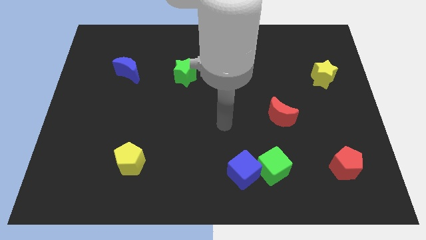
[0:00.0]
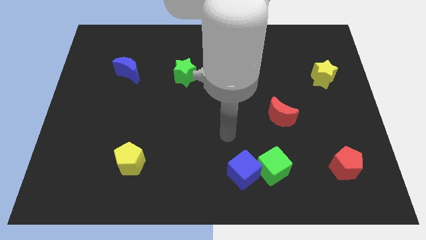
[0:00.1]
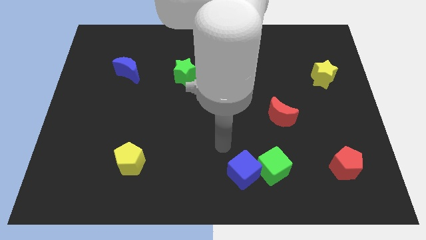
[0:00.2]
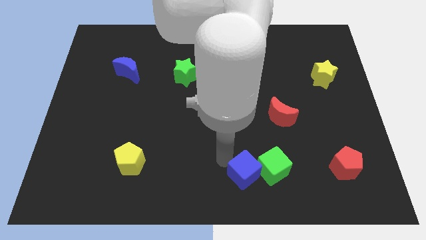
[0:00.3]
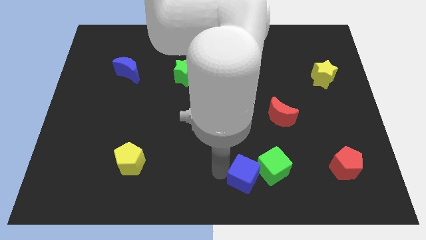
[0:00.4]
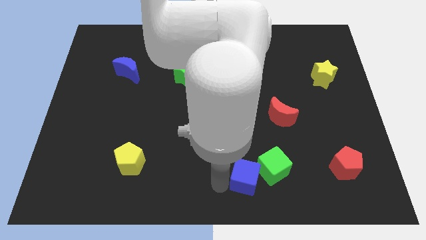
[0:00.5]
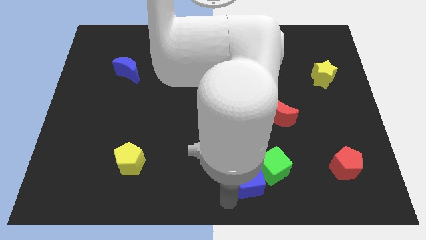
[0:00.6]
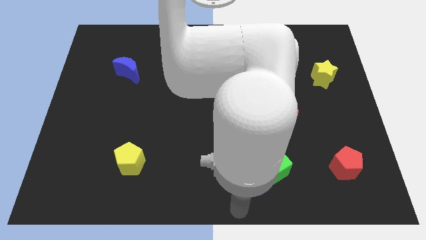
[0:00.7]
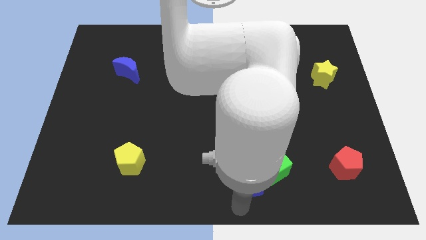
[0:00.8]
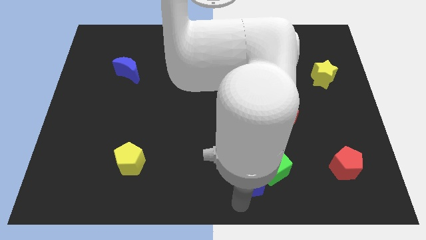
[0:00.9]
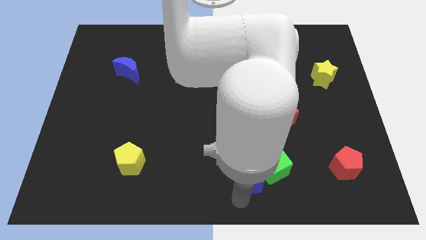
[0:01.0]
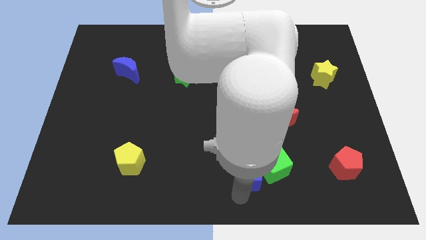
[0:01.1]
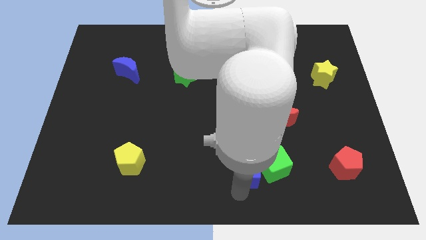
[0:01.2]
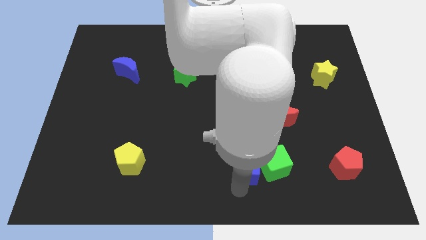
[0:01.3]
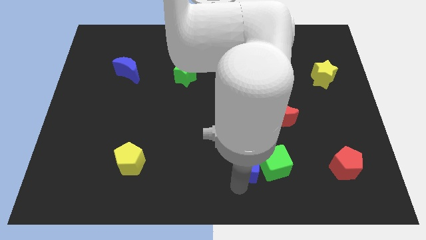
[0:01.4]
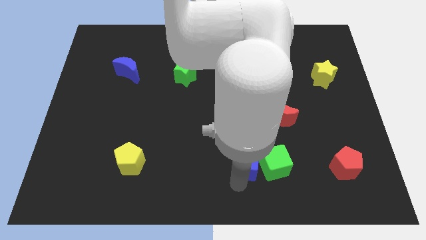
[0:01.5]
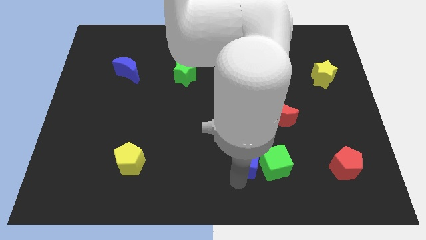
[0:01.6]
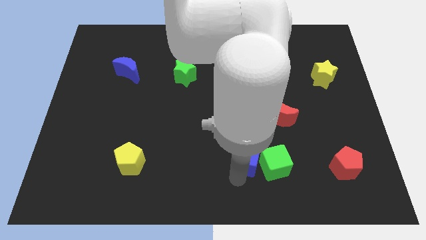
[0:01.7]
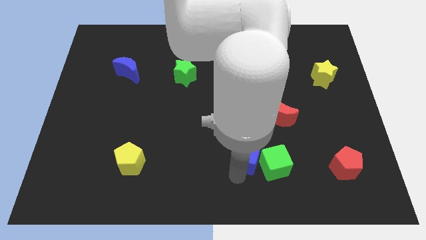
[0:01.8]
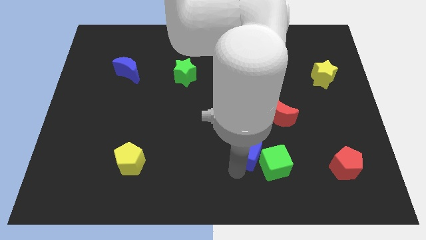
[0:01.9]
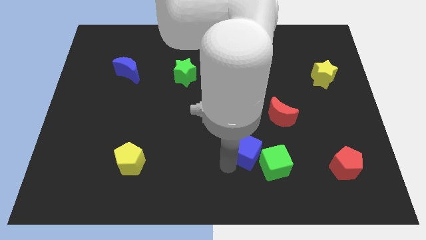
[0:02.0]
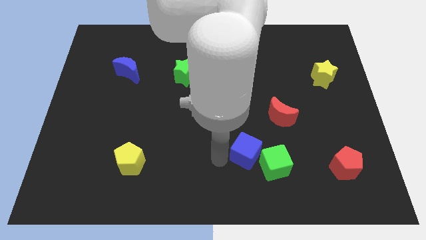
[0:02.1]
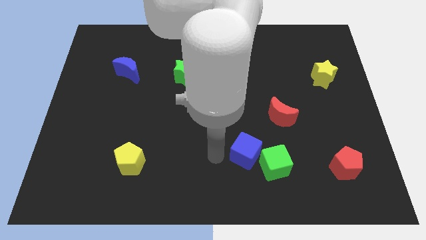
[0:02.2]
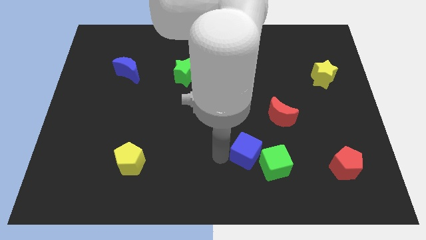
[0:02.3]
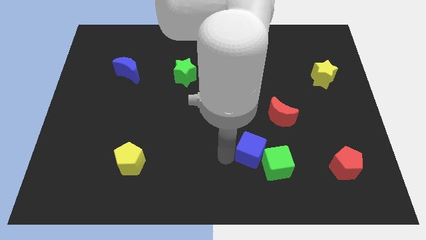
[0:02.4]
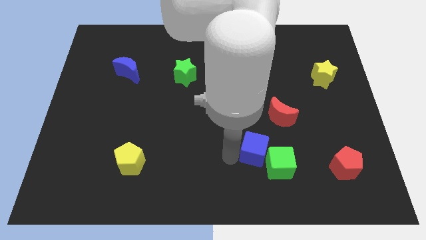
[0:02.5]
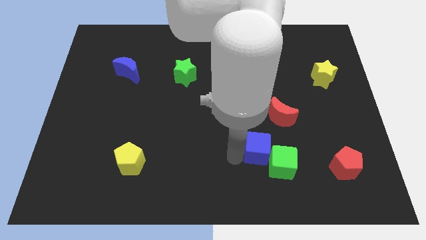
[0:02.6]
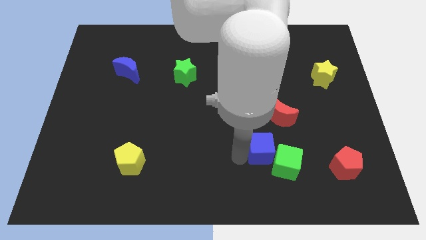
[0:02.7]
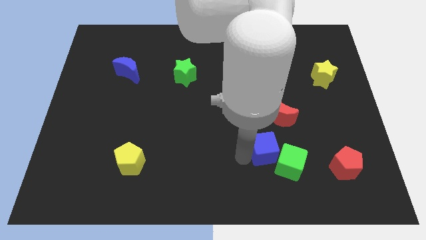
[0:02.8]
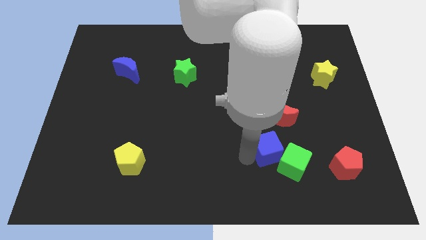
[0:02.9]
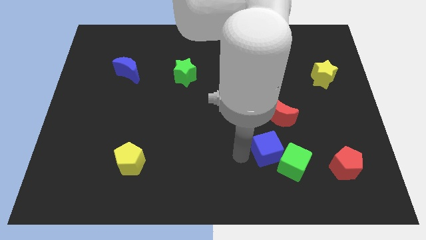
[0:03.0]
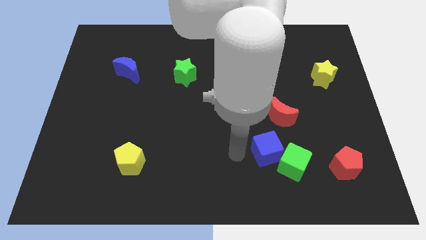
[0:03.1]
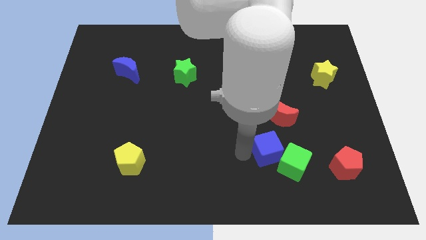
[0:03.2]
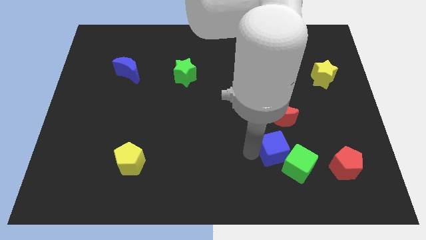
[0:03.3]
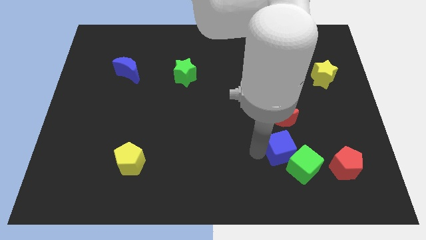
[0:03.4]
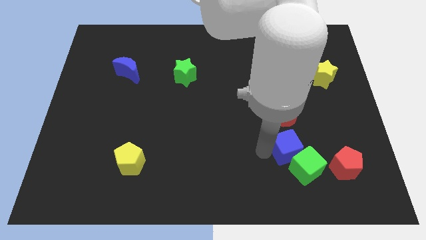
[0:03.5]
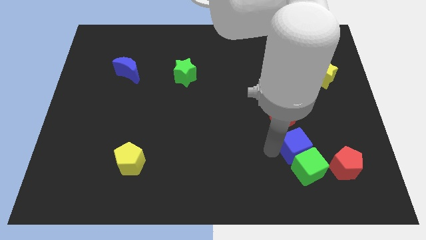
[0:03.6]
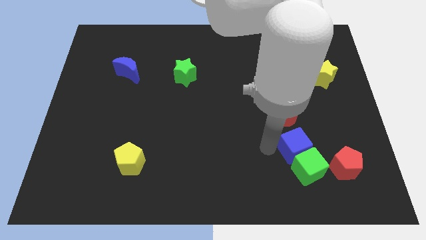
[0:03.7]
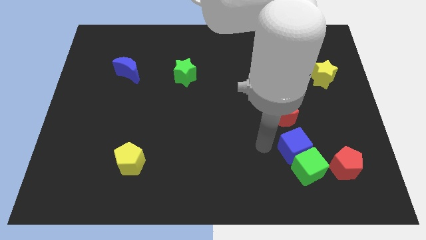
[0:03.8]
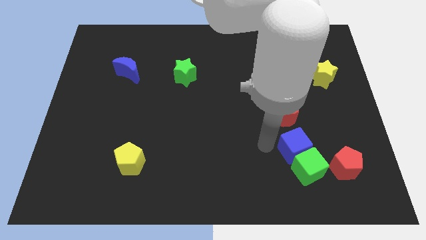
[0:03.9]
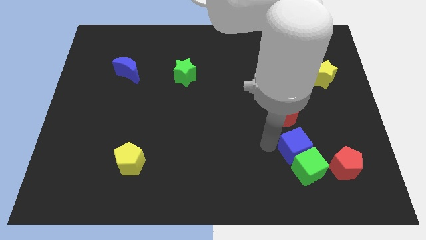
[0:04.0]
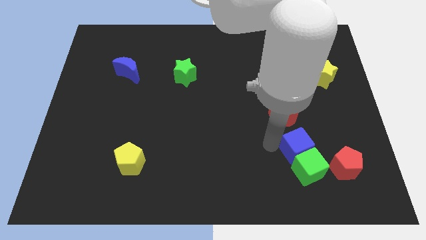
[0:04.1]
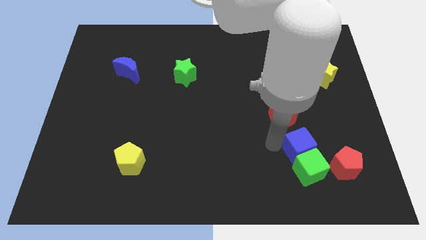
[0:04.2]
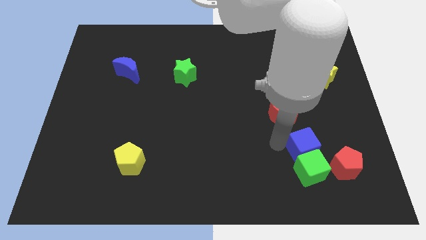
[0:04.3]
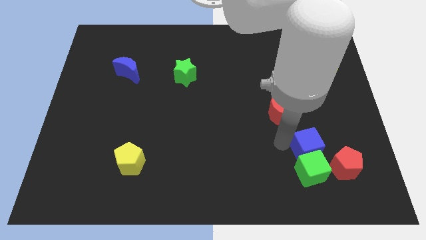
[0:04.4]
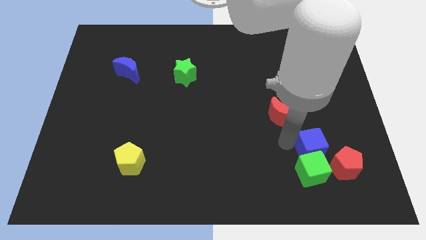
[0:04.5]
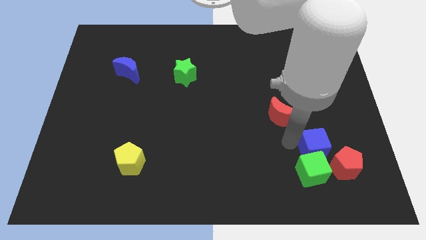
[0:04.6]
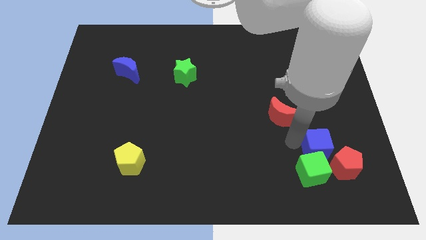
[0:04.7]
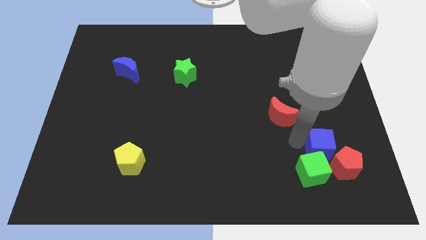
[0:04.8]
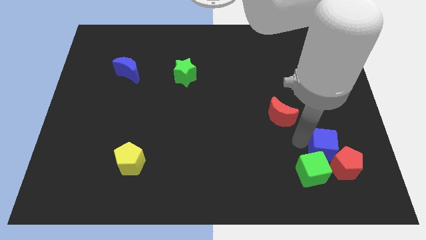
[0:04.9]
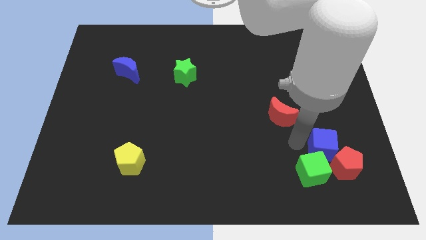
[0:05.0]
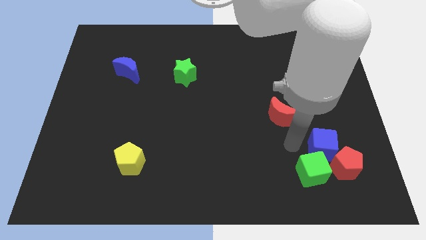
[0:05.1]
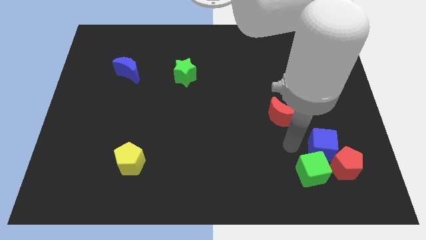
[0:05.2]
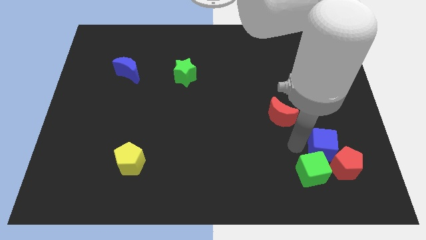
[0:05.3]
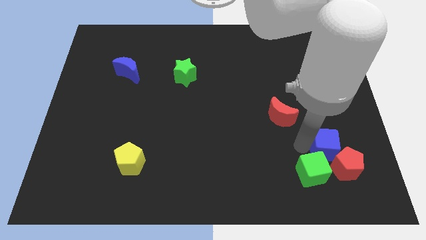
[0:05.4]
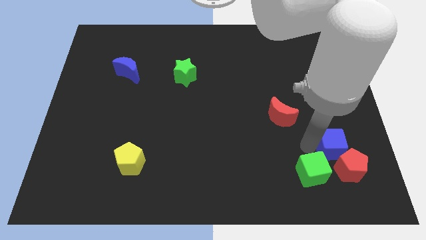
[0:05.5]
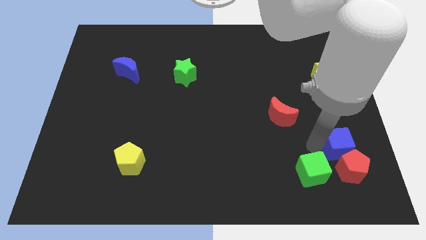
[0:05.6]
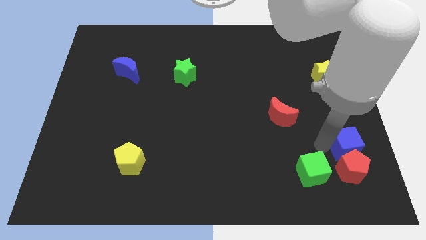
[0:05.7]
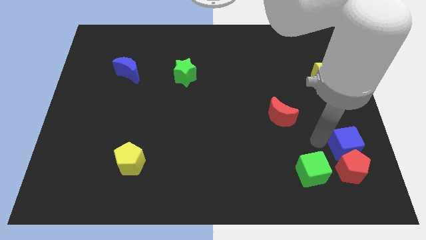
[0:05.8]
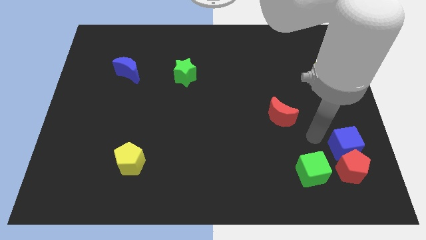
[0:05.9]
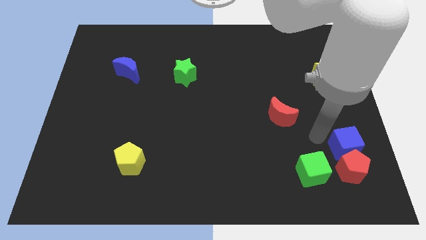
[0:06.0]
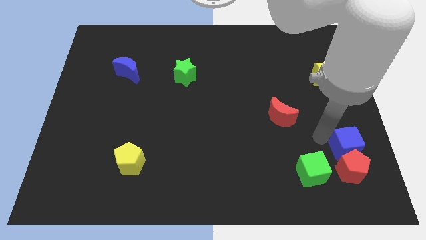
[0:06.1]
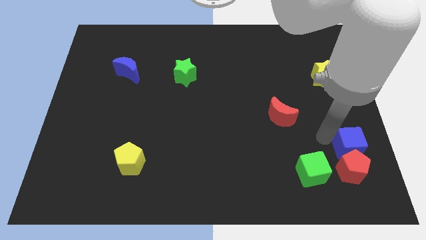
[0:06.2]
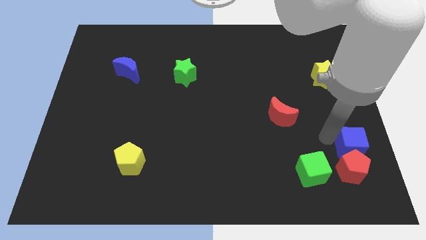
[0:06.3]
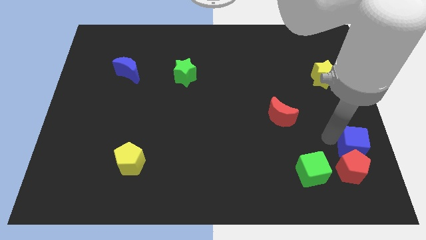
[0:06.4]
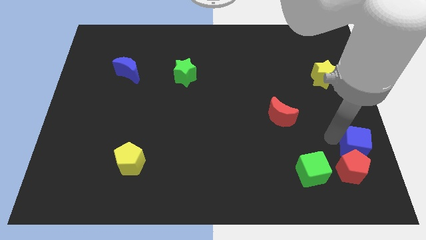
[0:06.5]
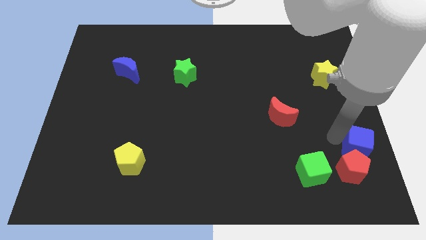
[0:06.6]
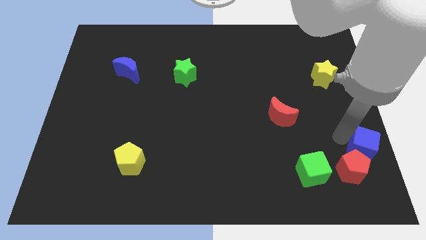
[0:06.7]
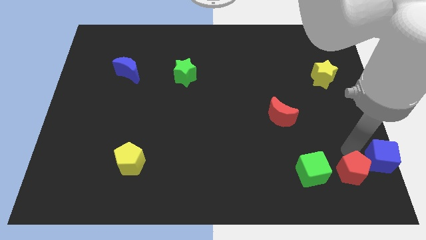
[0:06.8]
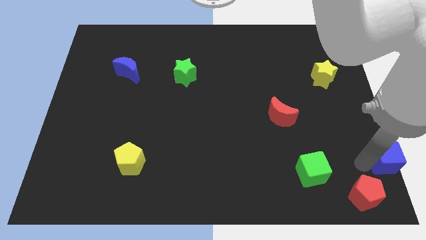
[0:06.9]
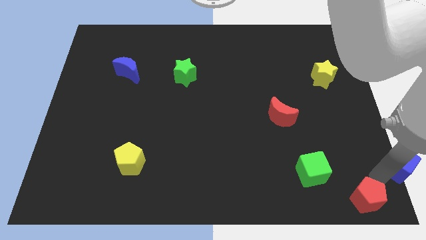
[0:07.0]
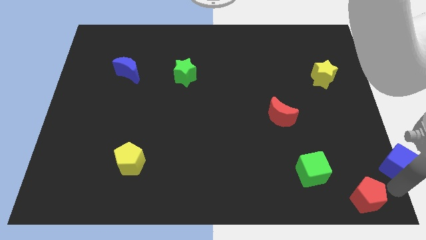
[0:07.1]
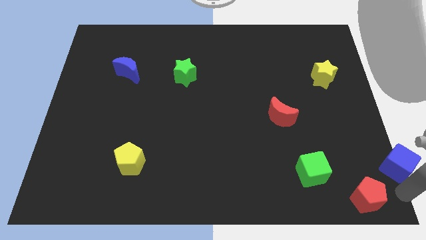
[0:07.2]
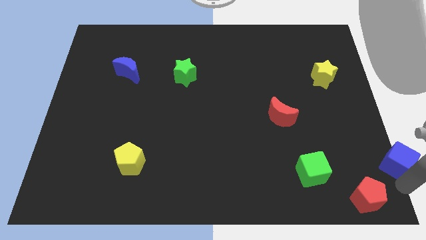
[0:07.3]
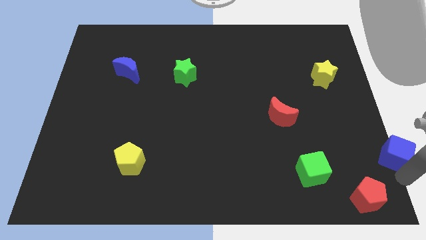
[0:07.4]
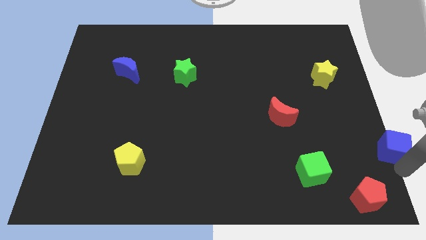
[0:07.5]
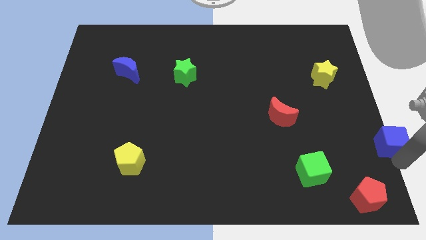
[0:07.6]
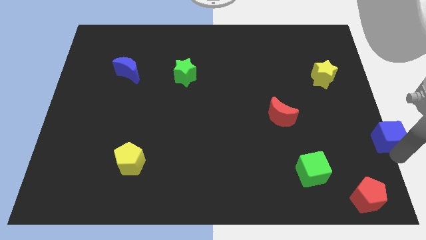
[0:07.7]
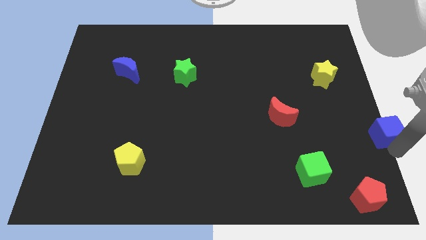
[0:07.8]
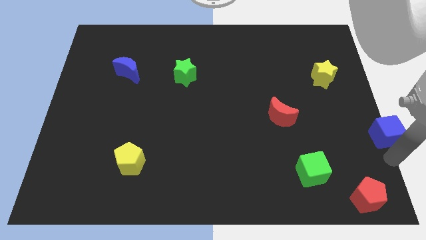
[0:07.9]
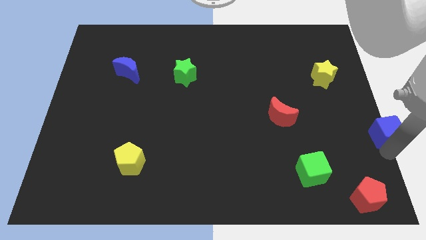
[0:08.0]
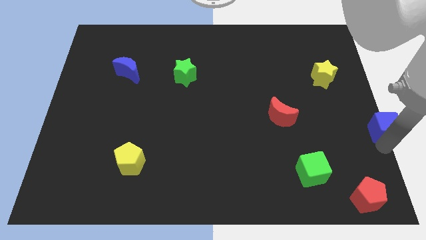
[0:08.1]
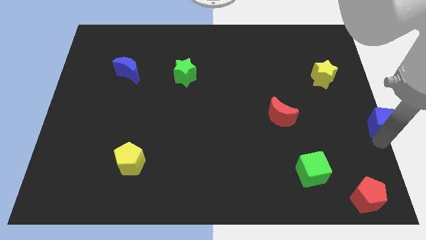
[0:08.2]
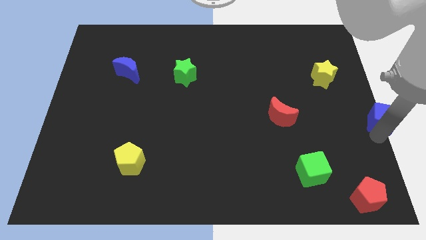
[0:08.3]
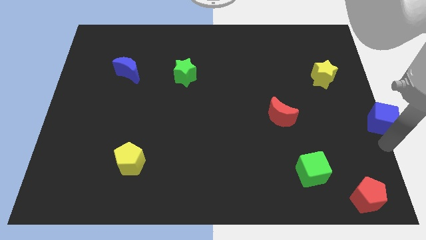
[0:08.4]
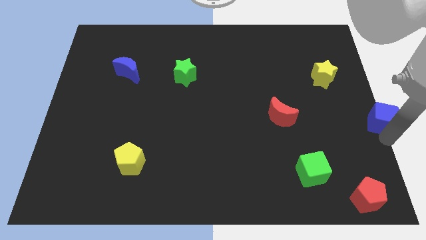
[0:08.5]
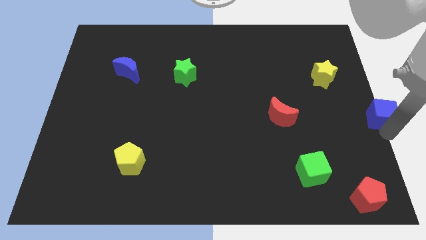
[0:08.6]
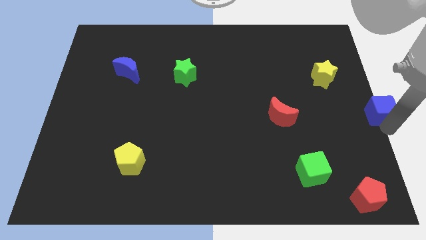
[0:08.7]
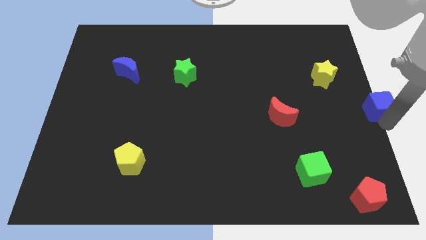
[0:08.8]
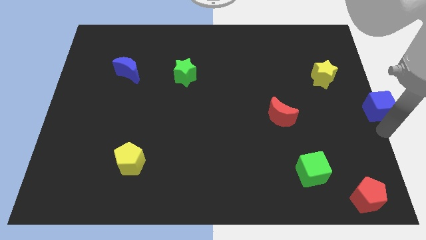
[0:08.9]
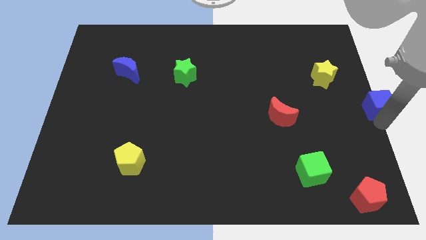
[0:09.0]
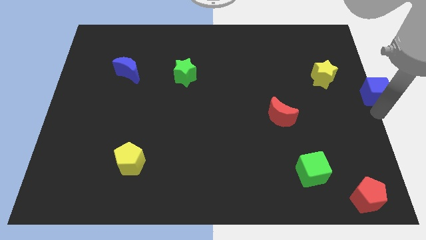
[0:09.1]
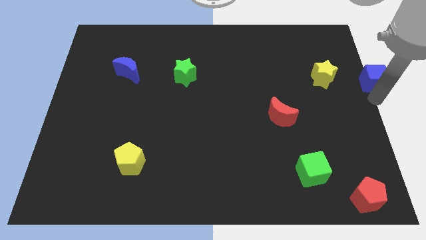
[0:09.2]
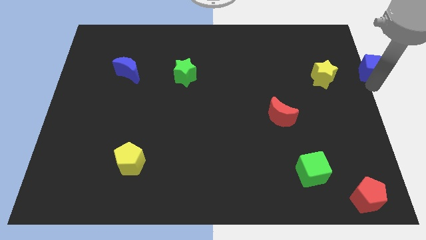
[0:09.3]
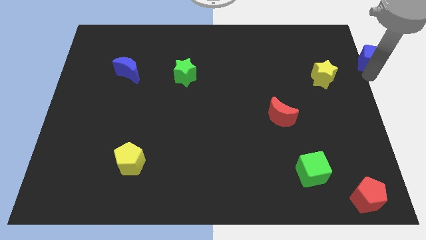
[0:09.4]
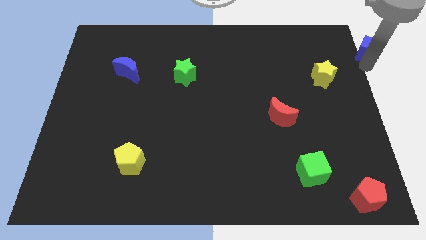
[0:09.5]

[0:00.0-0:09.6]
slide the blue cube to the top right corner
